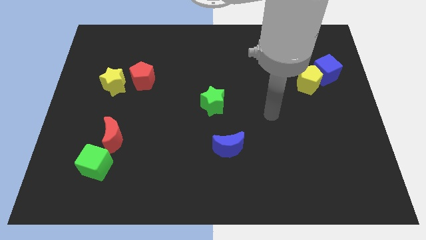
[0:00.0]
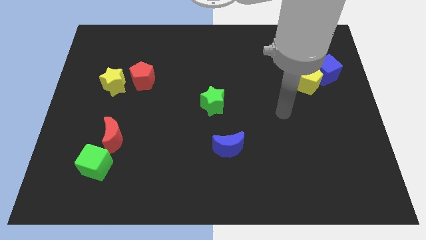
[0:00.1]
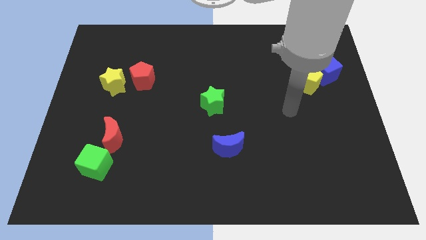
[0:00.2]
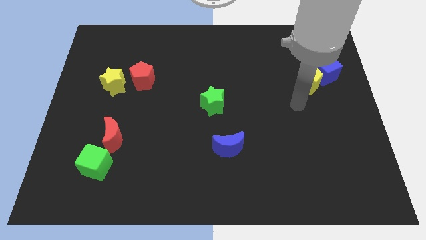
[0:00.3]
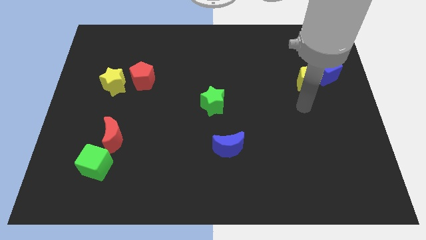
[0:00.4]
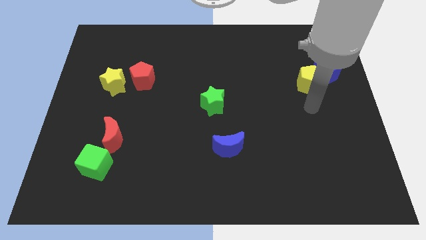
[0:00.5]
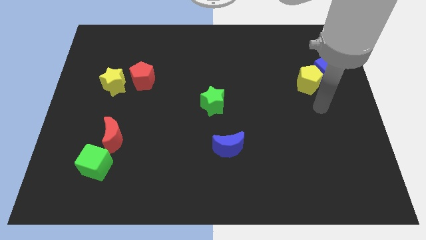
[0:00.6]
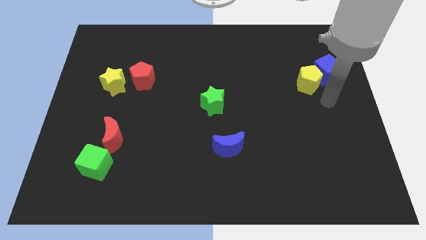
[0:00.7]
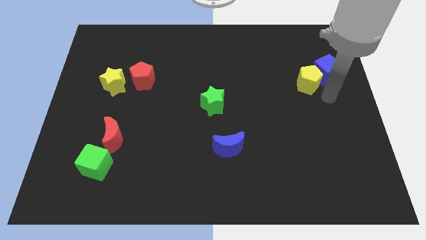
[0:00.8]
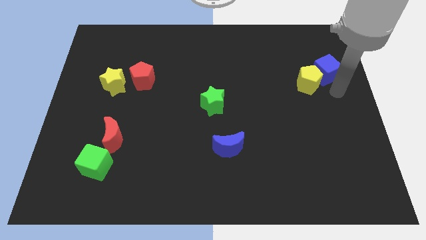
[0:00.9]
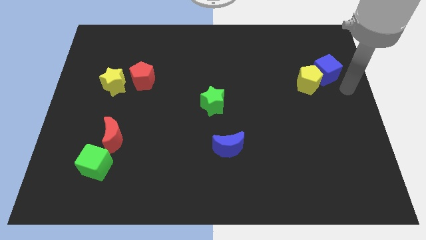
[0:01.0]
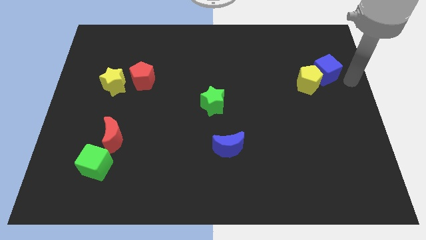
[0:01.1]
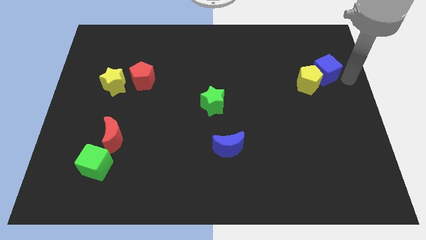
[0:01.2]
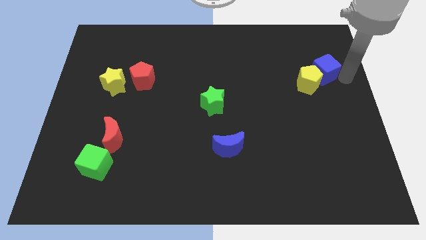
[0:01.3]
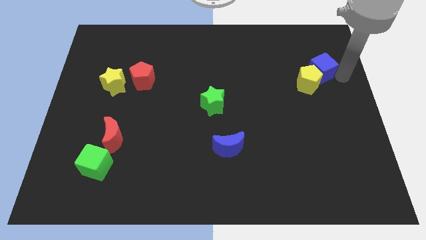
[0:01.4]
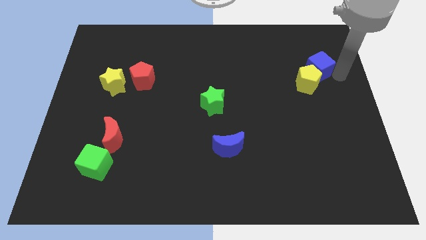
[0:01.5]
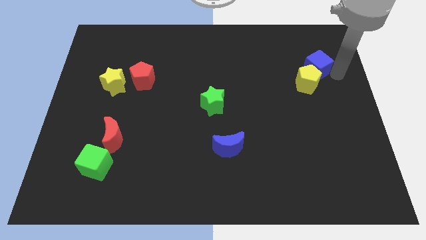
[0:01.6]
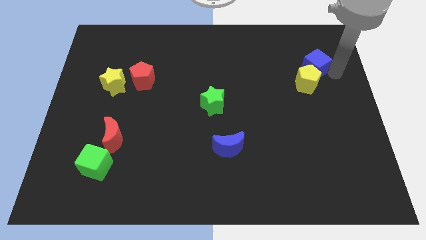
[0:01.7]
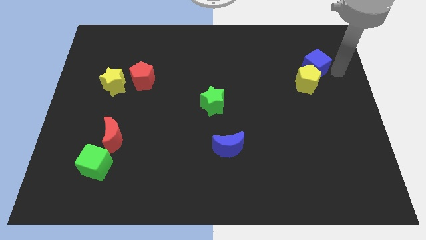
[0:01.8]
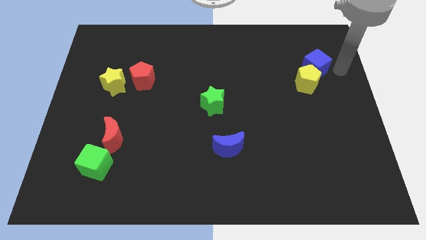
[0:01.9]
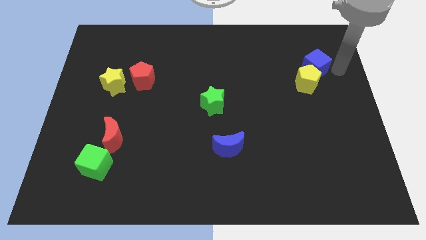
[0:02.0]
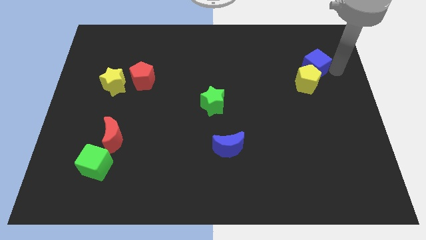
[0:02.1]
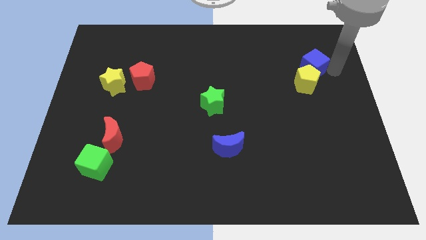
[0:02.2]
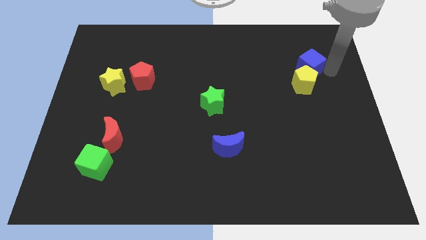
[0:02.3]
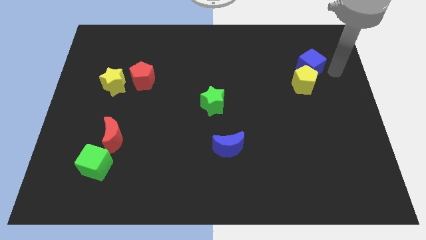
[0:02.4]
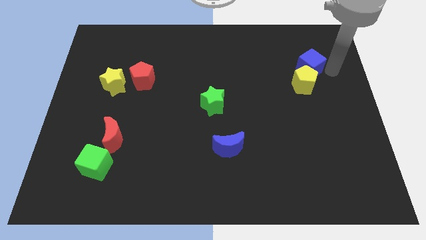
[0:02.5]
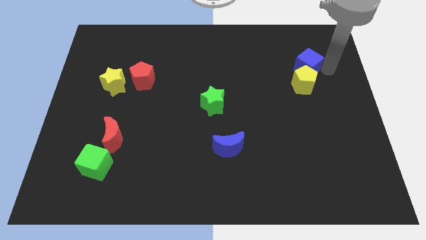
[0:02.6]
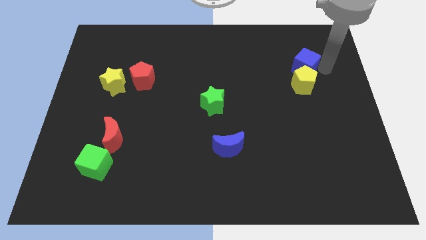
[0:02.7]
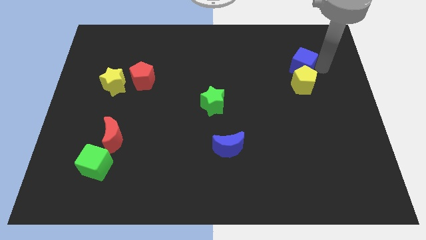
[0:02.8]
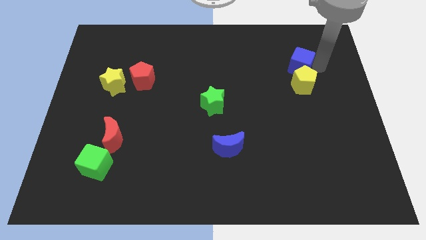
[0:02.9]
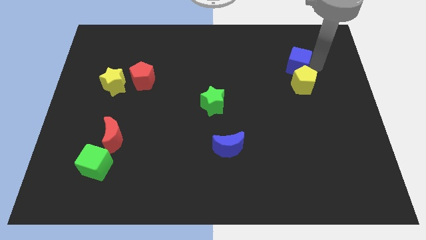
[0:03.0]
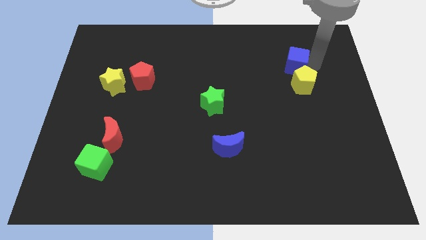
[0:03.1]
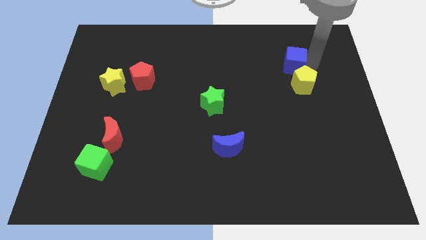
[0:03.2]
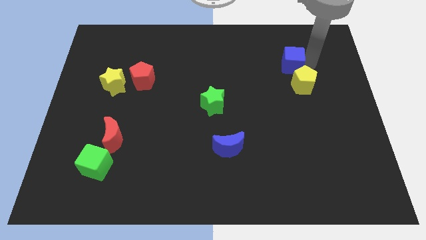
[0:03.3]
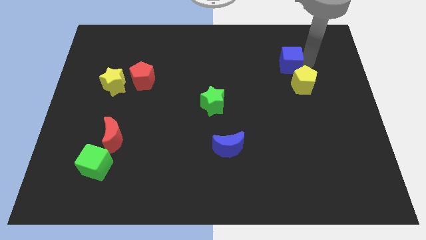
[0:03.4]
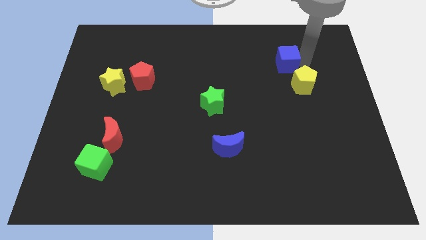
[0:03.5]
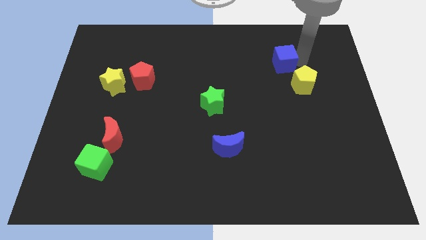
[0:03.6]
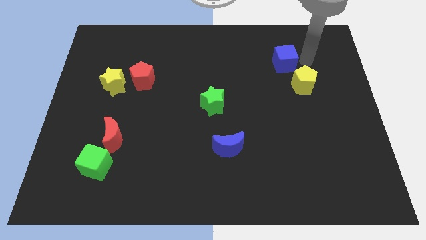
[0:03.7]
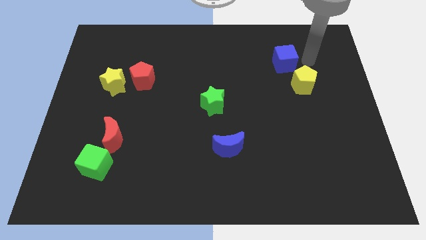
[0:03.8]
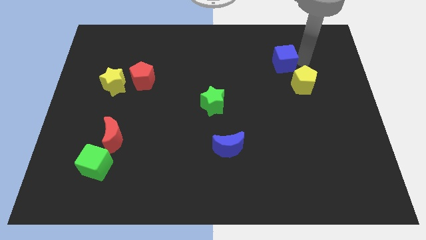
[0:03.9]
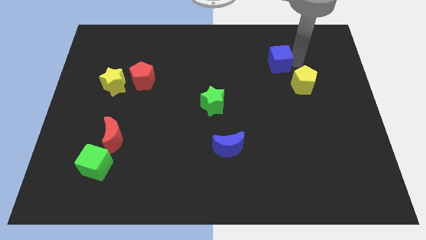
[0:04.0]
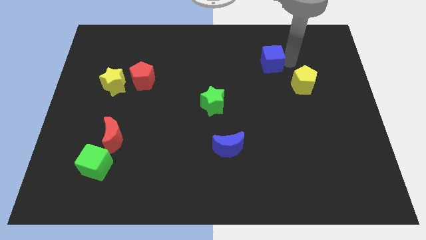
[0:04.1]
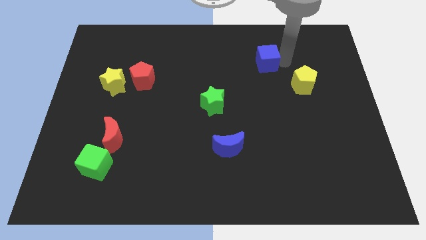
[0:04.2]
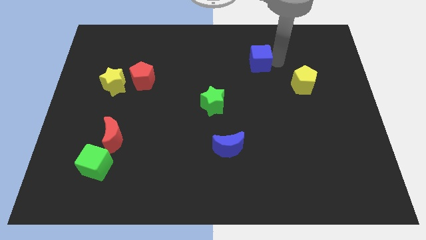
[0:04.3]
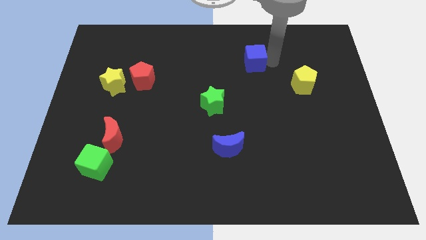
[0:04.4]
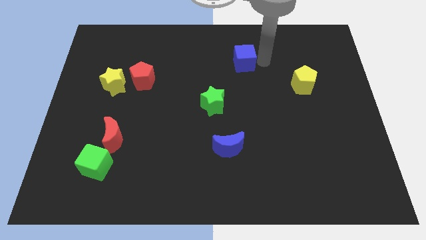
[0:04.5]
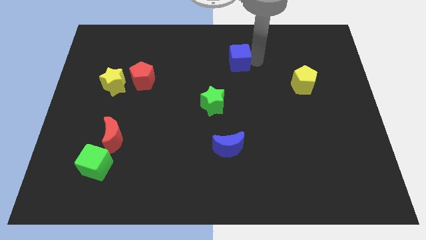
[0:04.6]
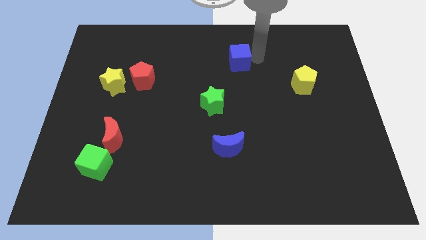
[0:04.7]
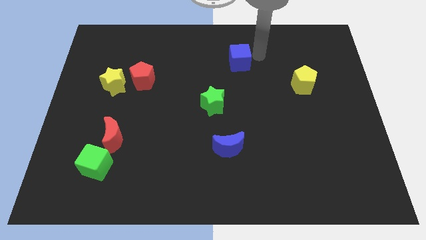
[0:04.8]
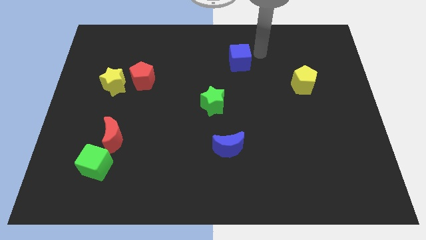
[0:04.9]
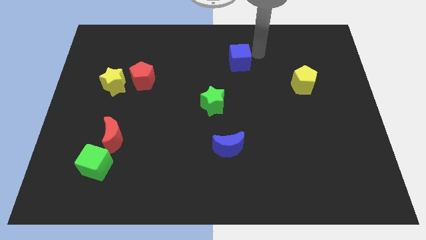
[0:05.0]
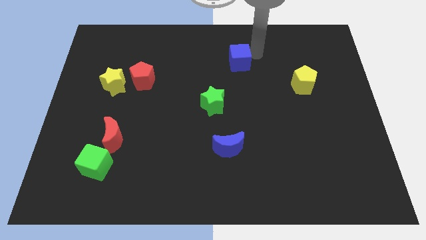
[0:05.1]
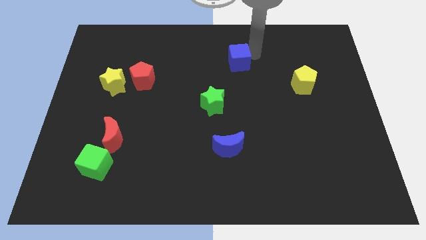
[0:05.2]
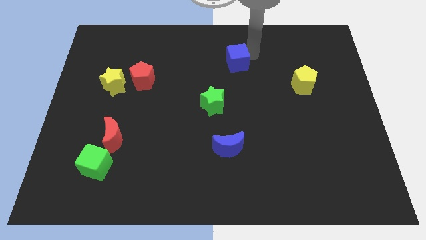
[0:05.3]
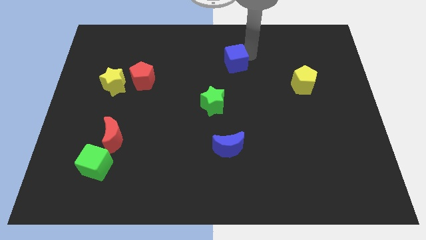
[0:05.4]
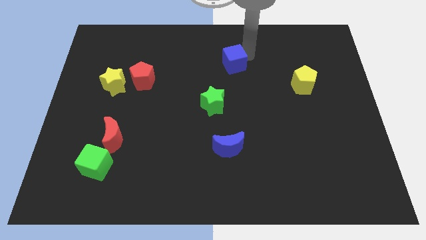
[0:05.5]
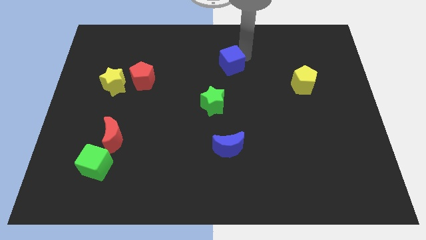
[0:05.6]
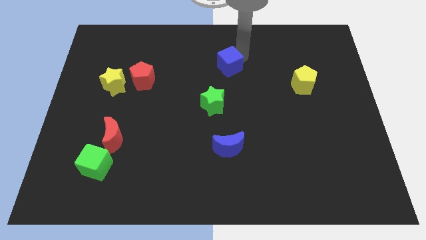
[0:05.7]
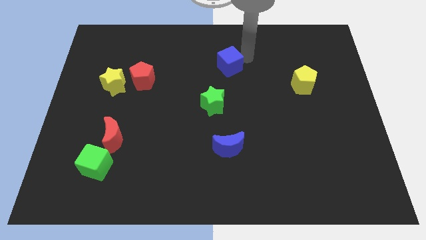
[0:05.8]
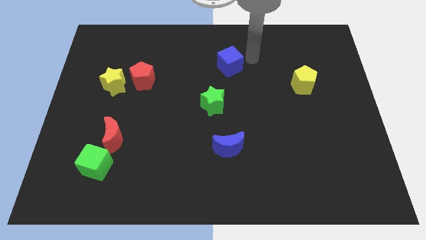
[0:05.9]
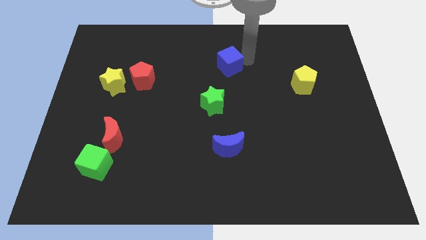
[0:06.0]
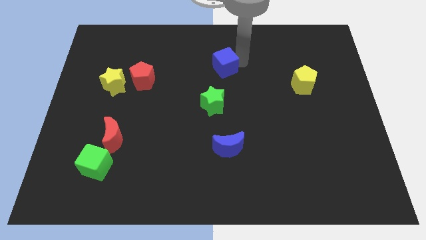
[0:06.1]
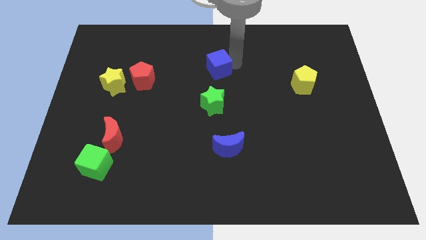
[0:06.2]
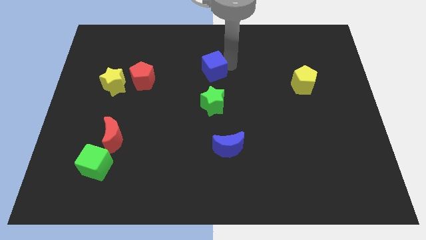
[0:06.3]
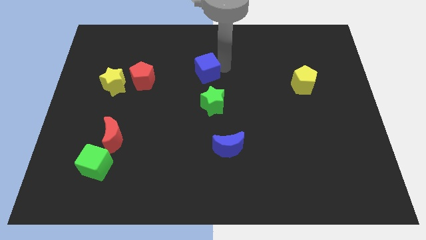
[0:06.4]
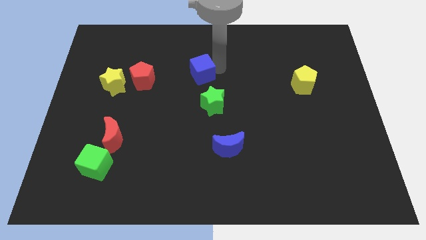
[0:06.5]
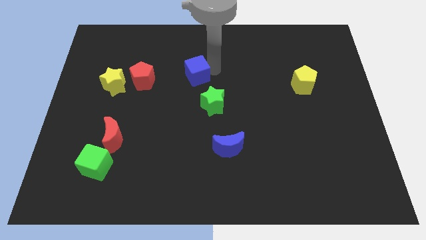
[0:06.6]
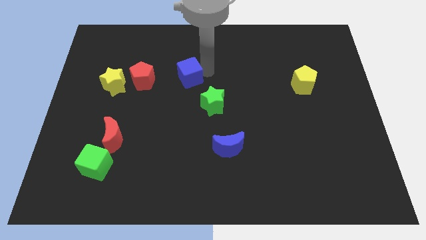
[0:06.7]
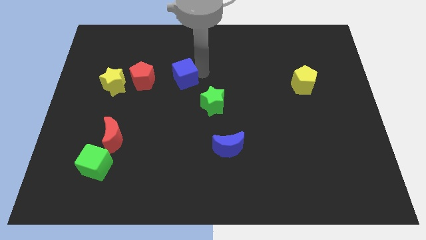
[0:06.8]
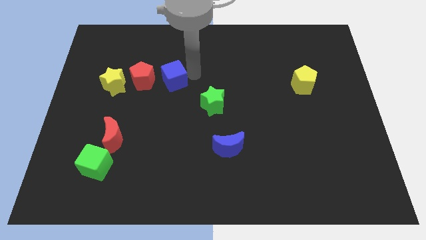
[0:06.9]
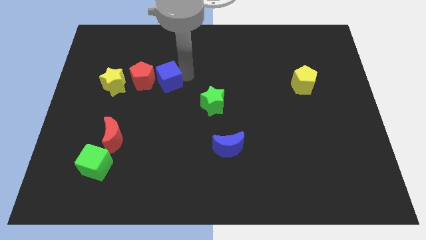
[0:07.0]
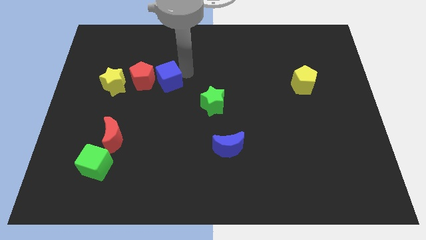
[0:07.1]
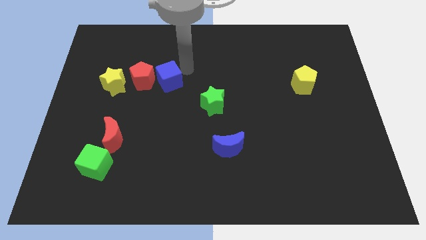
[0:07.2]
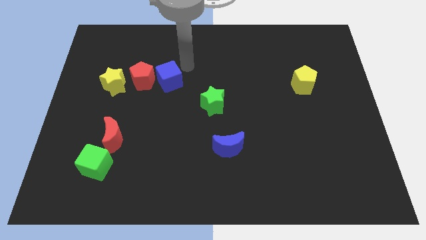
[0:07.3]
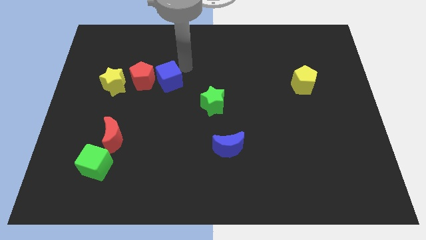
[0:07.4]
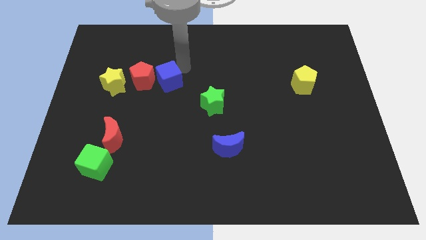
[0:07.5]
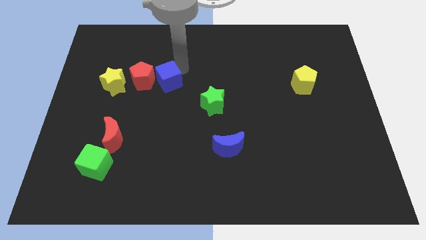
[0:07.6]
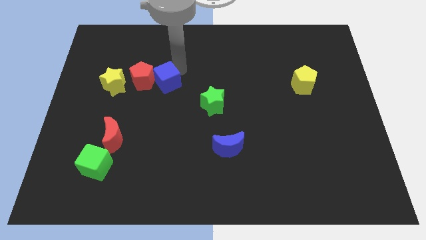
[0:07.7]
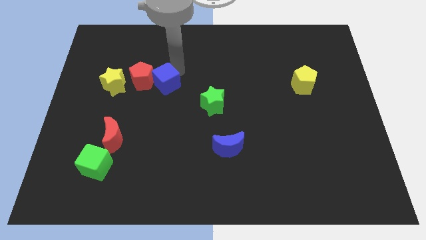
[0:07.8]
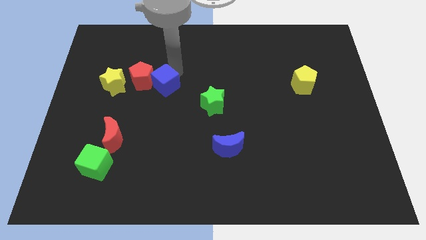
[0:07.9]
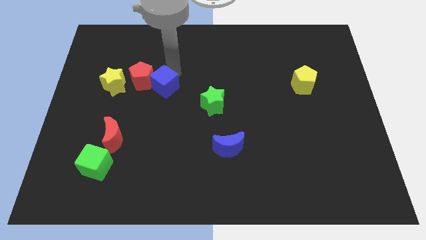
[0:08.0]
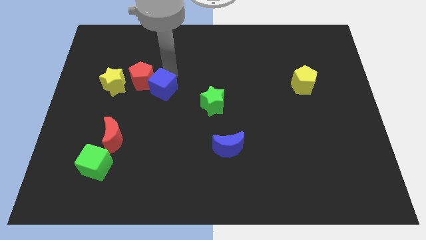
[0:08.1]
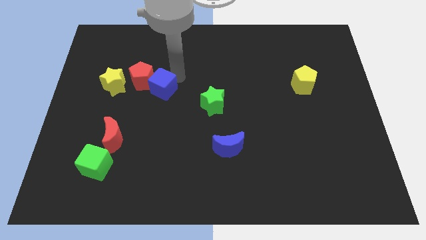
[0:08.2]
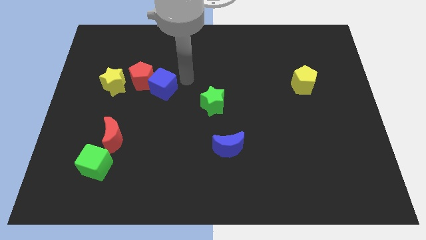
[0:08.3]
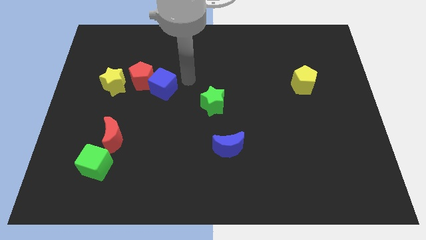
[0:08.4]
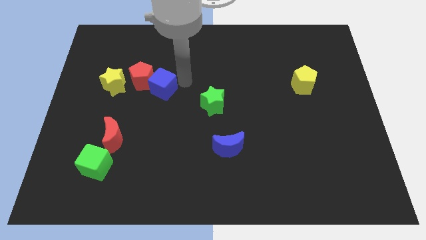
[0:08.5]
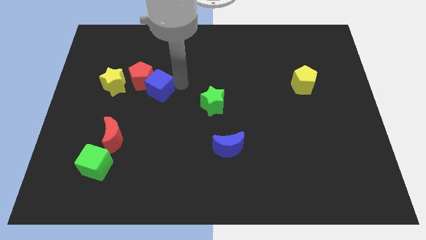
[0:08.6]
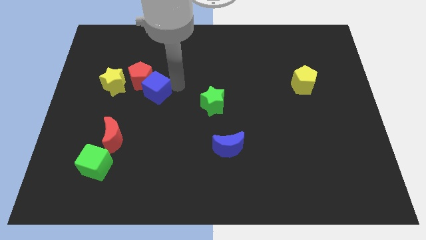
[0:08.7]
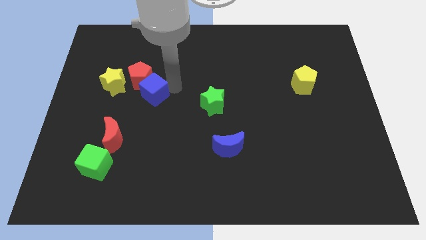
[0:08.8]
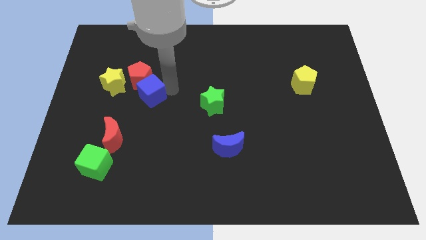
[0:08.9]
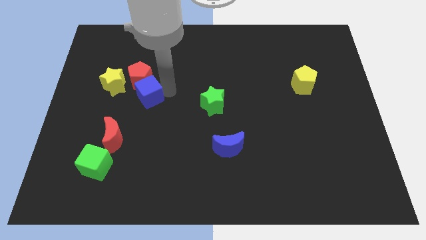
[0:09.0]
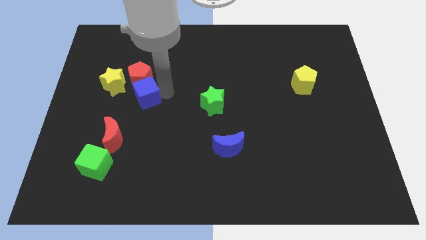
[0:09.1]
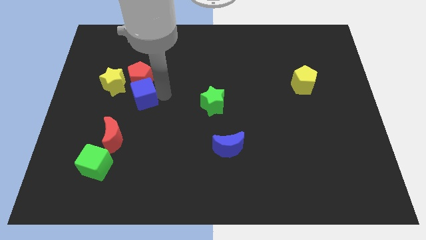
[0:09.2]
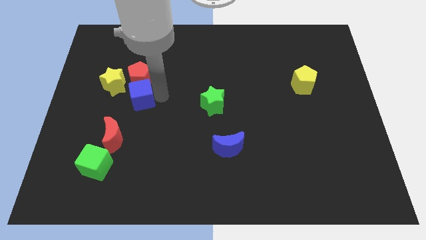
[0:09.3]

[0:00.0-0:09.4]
move the blue cube to the top side of the red moon
